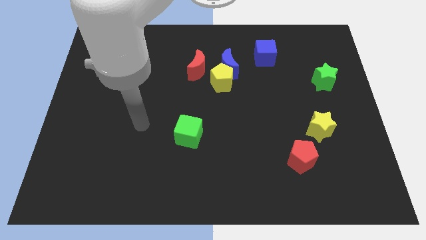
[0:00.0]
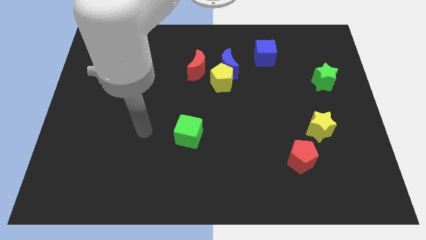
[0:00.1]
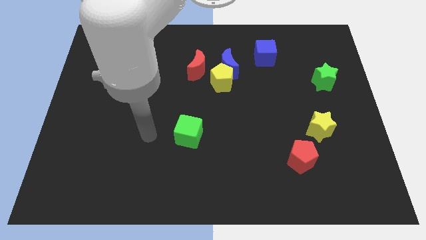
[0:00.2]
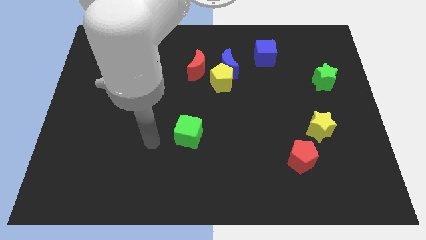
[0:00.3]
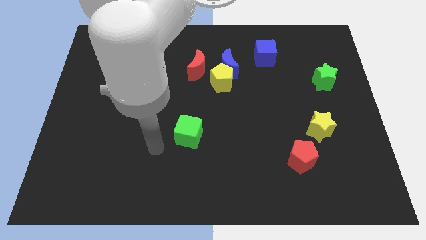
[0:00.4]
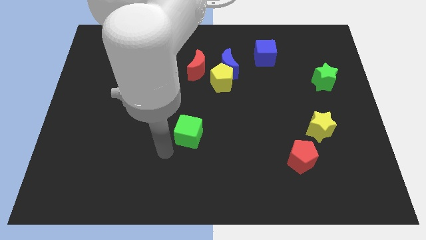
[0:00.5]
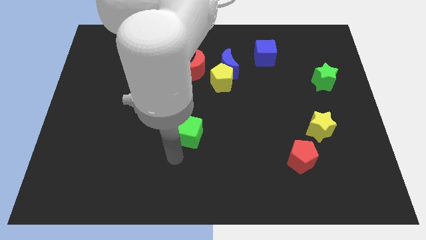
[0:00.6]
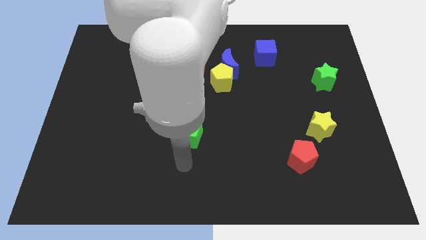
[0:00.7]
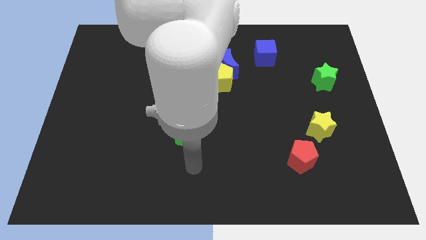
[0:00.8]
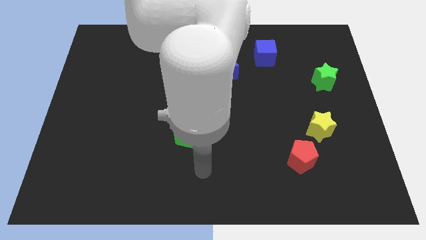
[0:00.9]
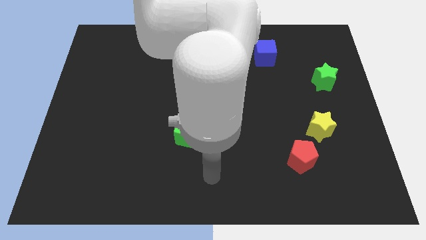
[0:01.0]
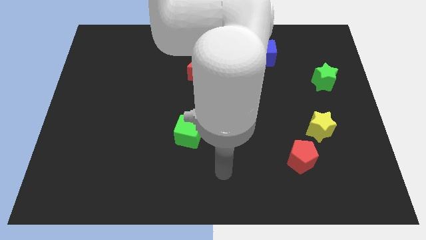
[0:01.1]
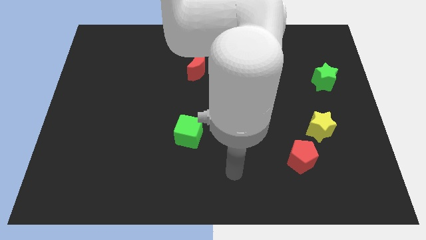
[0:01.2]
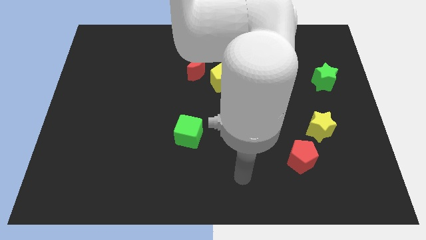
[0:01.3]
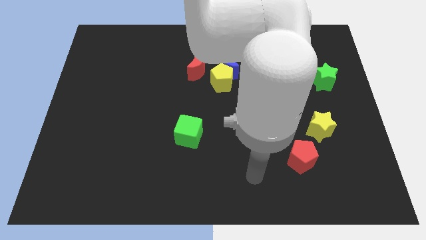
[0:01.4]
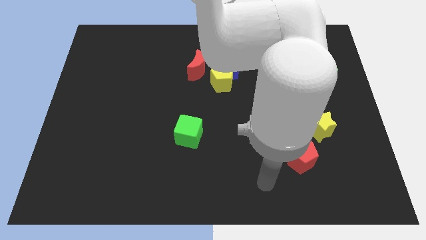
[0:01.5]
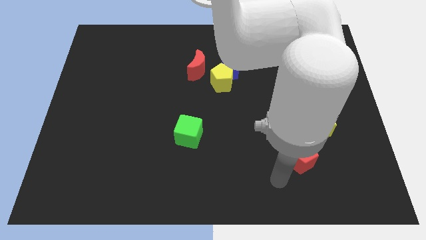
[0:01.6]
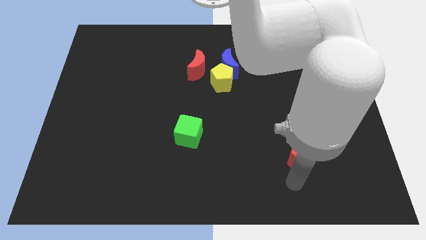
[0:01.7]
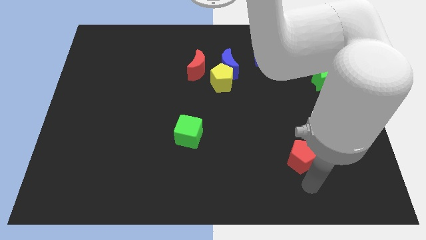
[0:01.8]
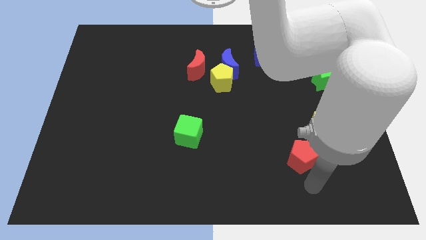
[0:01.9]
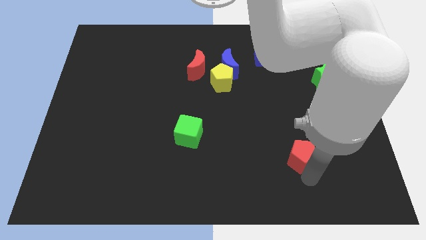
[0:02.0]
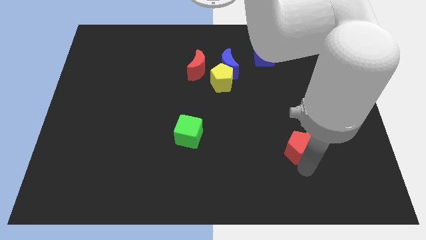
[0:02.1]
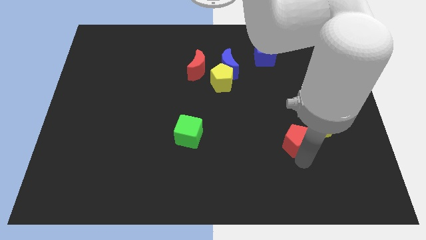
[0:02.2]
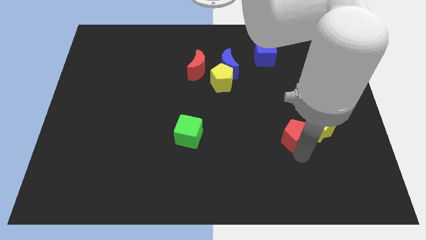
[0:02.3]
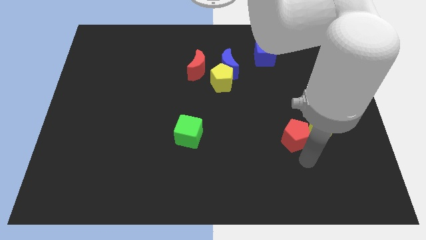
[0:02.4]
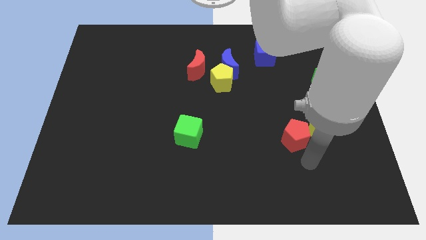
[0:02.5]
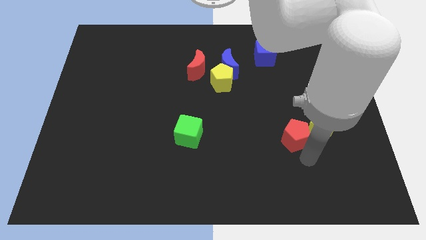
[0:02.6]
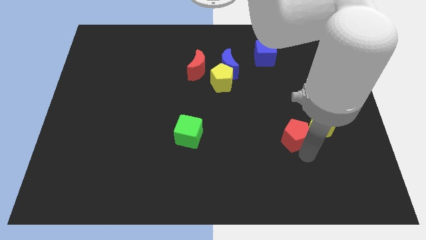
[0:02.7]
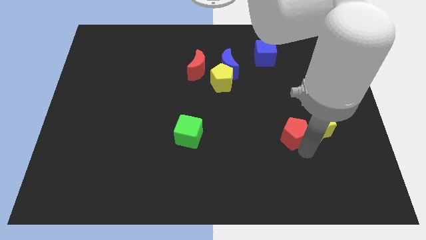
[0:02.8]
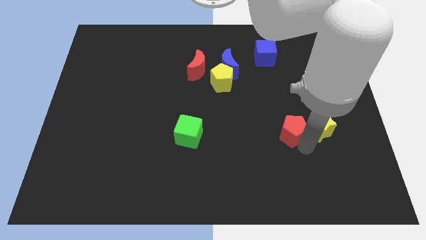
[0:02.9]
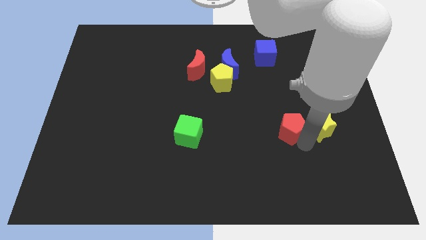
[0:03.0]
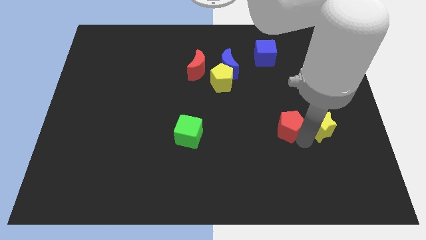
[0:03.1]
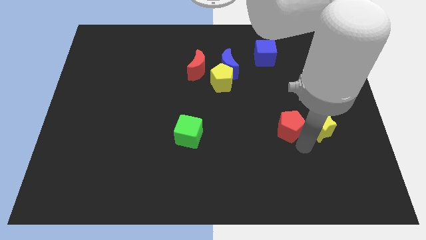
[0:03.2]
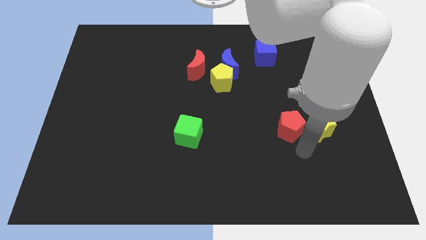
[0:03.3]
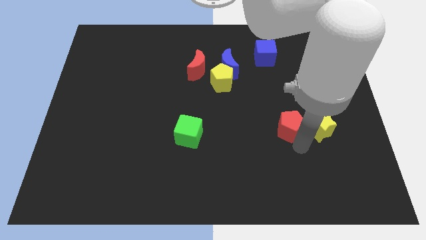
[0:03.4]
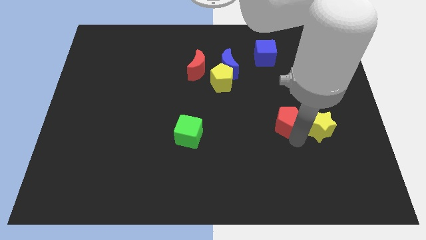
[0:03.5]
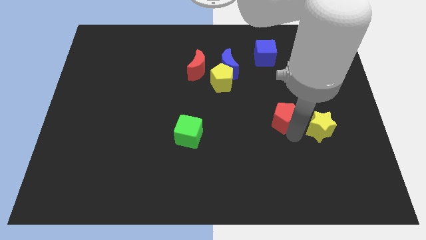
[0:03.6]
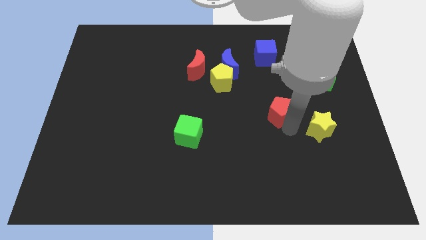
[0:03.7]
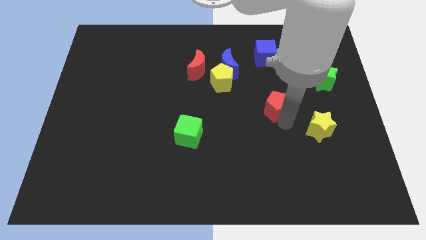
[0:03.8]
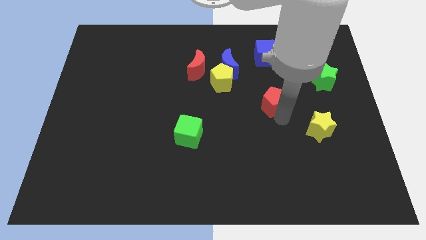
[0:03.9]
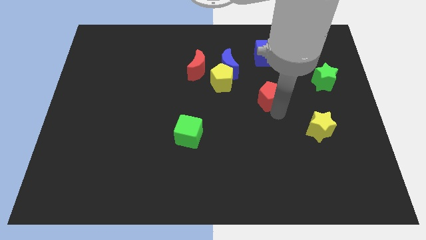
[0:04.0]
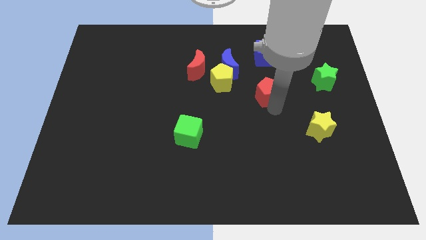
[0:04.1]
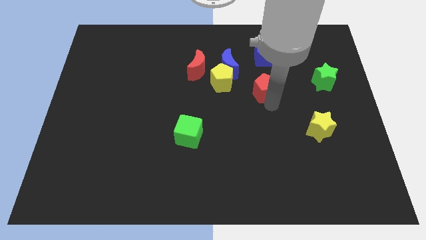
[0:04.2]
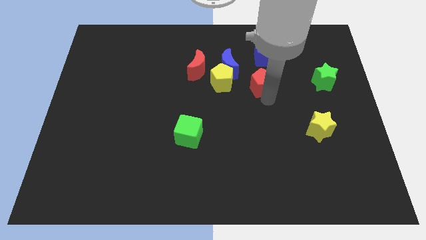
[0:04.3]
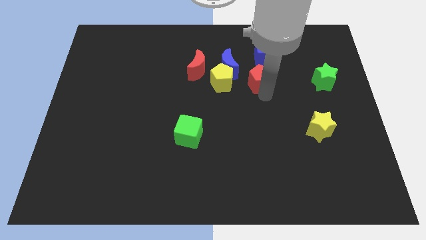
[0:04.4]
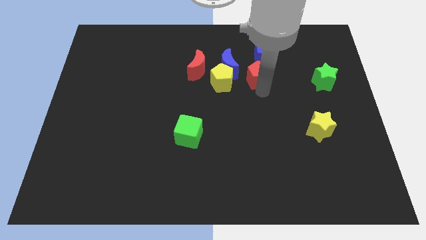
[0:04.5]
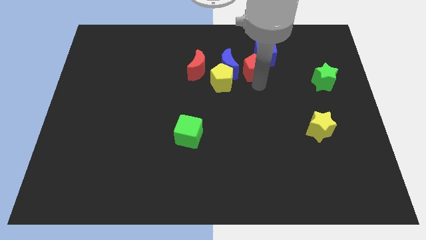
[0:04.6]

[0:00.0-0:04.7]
slide the red pentagon towards the blue cube

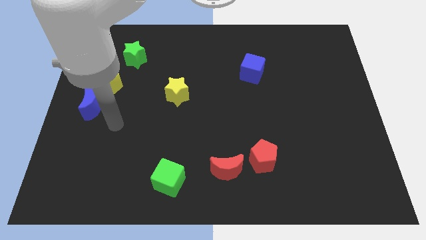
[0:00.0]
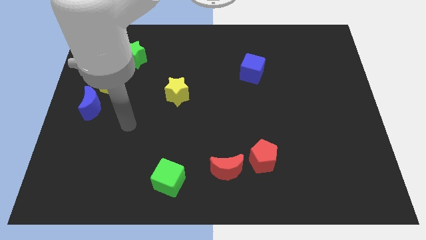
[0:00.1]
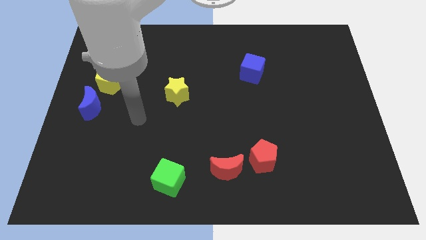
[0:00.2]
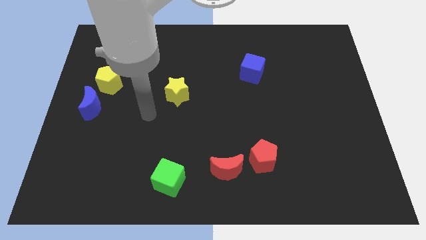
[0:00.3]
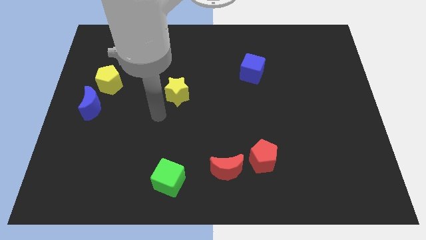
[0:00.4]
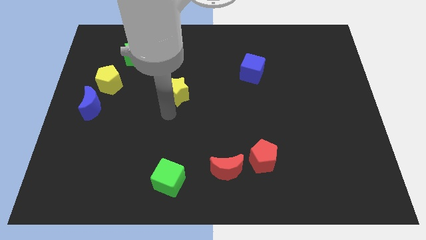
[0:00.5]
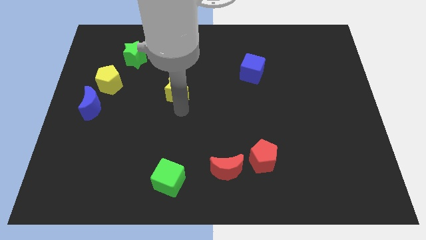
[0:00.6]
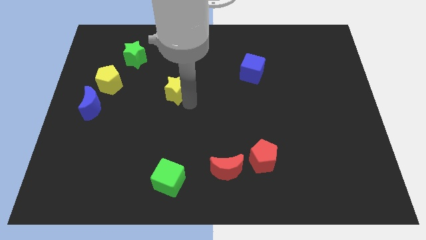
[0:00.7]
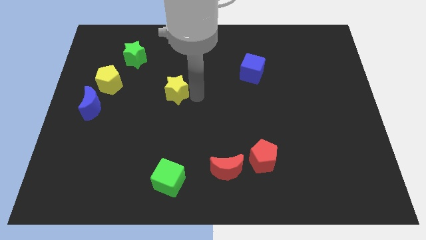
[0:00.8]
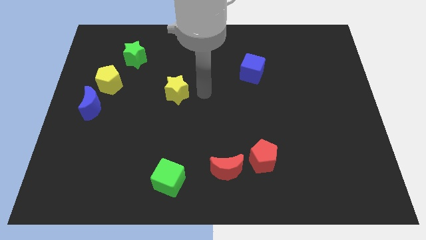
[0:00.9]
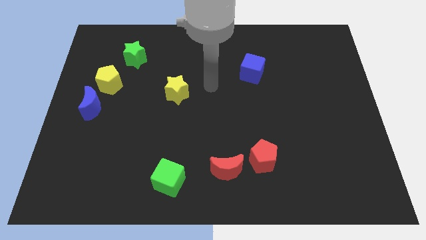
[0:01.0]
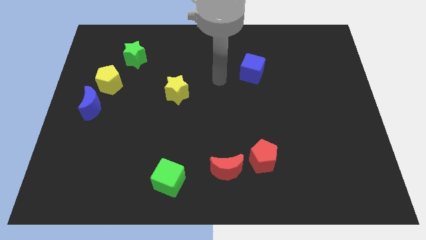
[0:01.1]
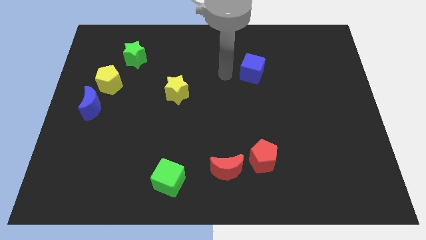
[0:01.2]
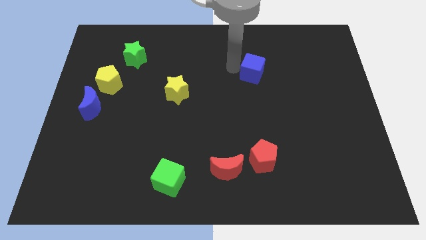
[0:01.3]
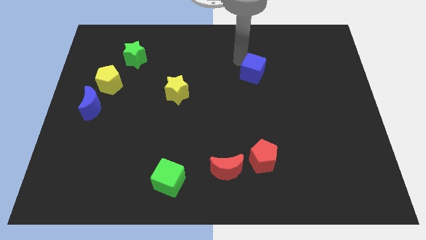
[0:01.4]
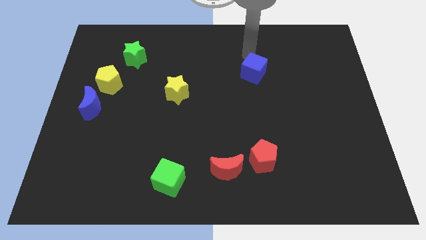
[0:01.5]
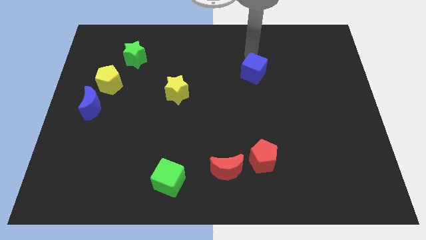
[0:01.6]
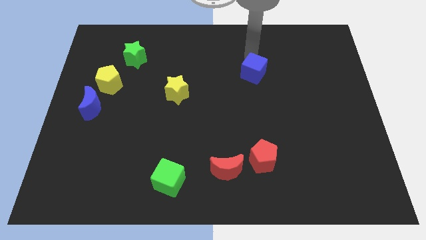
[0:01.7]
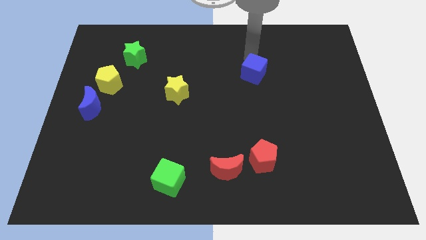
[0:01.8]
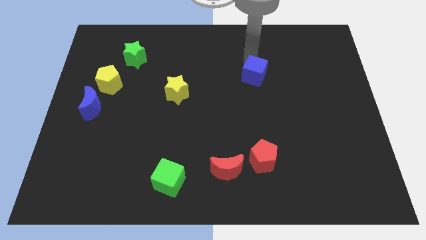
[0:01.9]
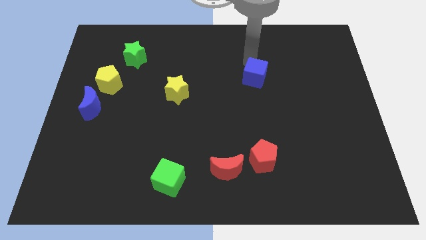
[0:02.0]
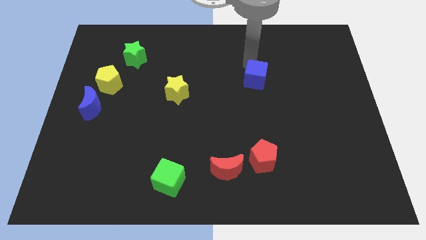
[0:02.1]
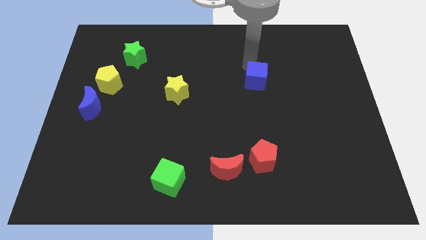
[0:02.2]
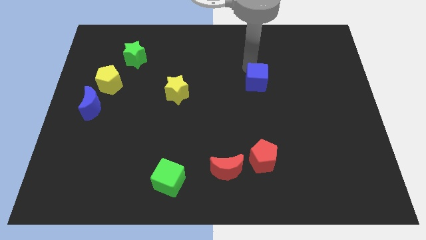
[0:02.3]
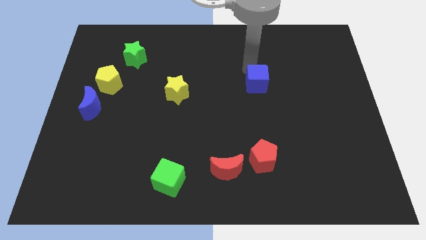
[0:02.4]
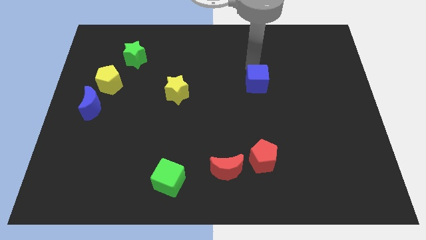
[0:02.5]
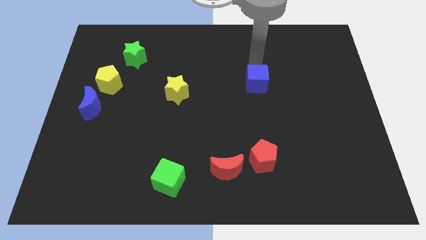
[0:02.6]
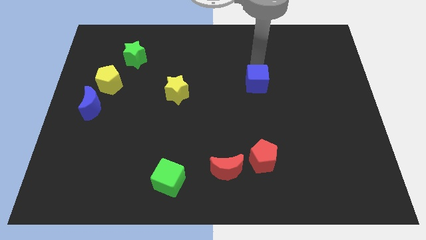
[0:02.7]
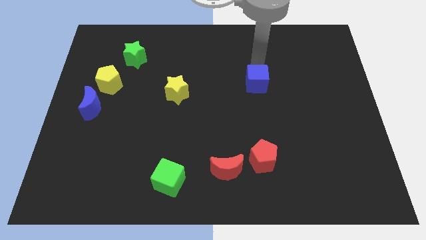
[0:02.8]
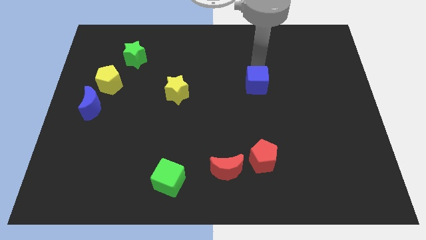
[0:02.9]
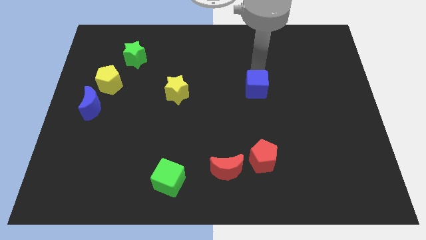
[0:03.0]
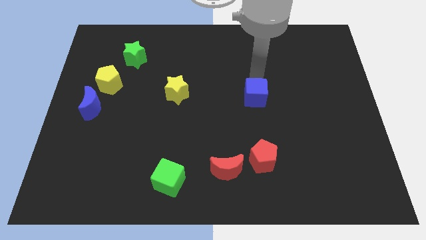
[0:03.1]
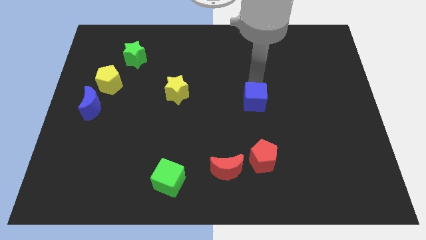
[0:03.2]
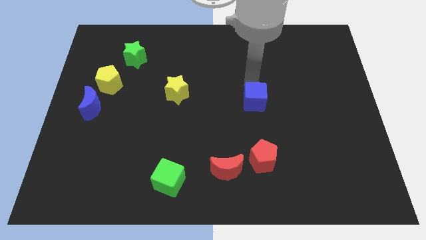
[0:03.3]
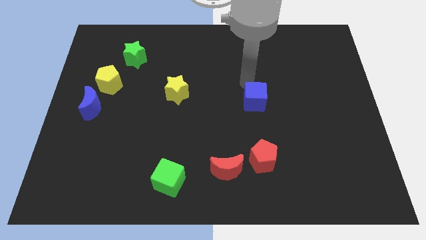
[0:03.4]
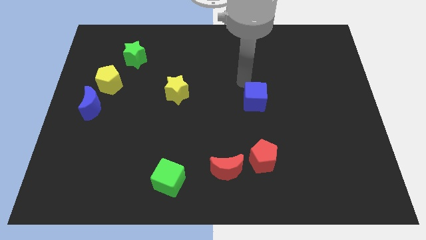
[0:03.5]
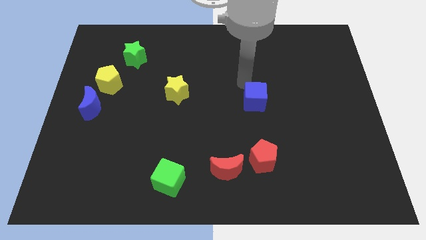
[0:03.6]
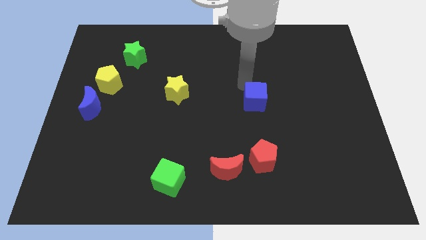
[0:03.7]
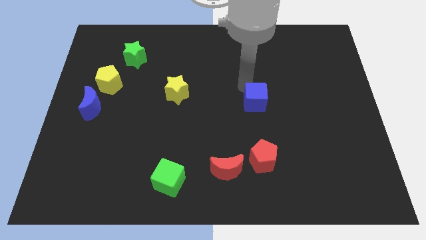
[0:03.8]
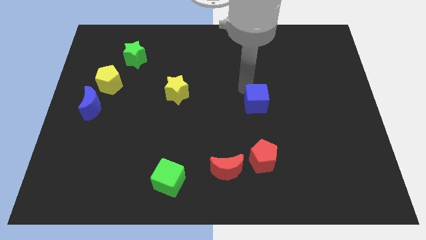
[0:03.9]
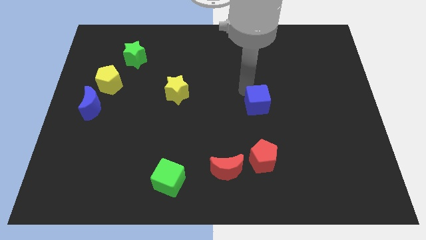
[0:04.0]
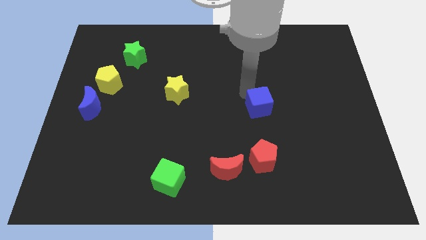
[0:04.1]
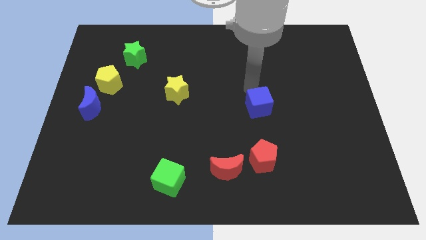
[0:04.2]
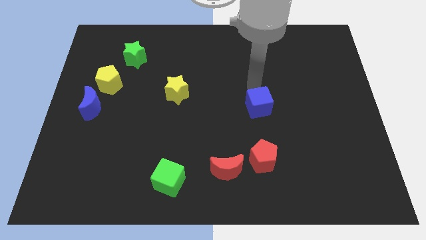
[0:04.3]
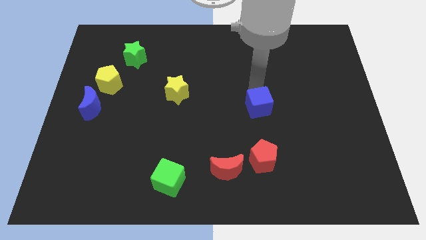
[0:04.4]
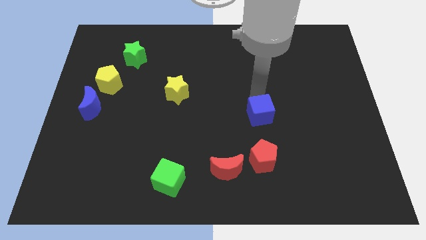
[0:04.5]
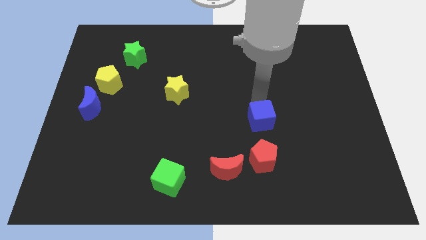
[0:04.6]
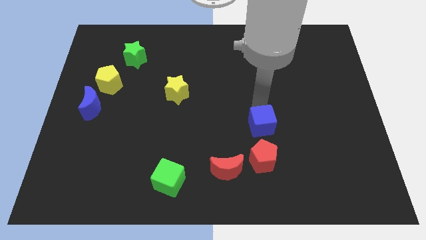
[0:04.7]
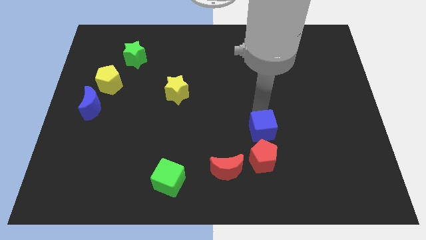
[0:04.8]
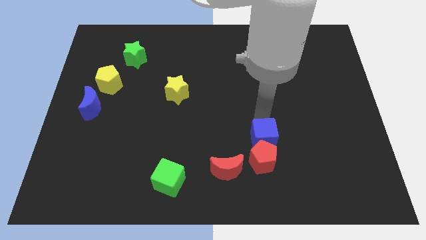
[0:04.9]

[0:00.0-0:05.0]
slide the blue cube next to the red pentagon
